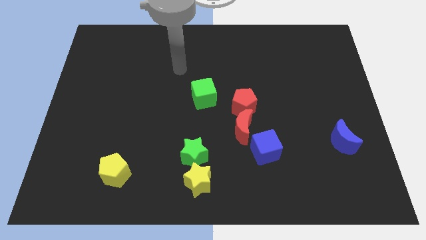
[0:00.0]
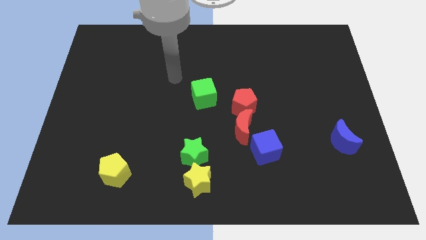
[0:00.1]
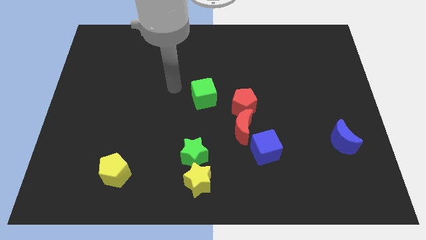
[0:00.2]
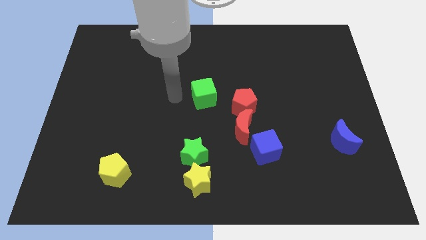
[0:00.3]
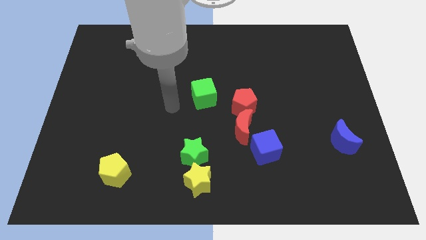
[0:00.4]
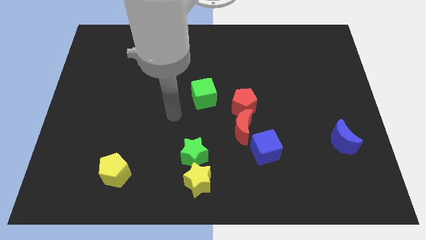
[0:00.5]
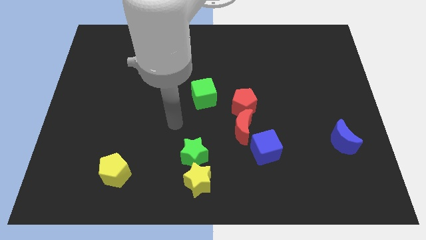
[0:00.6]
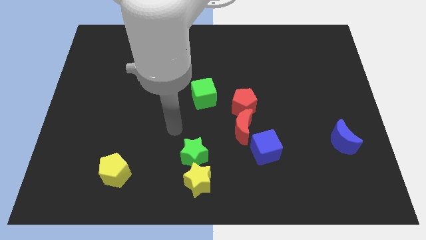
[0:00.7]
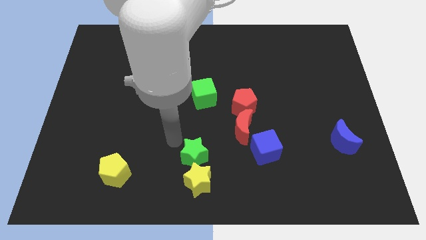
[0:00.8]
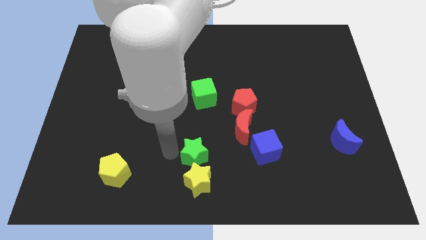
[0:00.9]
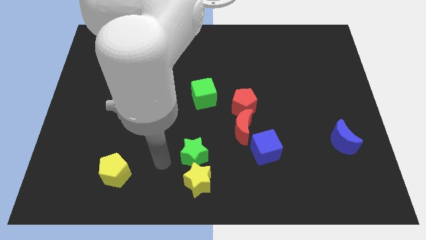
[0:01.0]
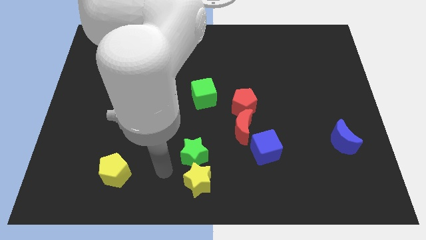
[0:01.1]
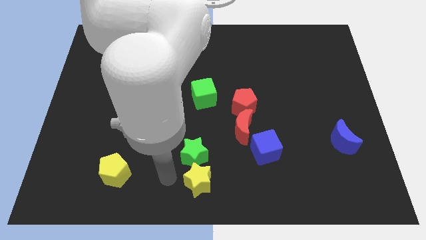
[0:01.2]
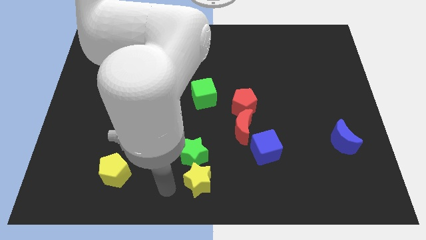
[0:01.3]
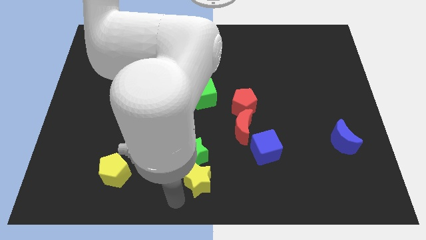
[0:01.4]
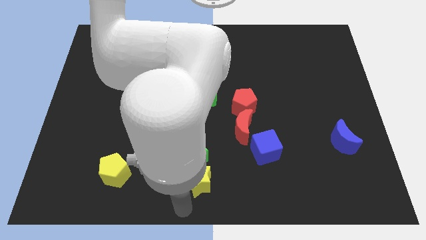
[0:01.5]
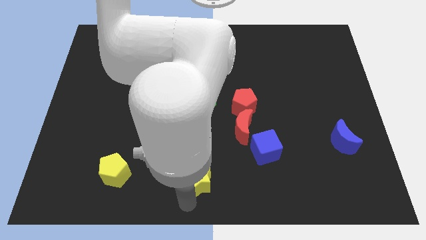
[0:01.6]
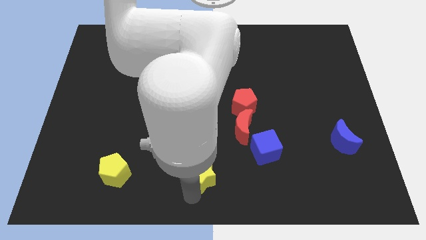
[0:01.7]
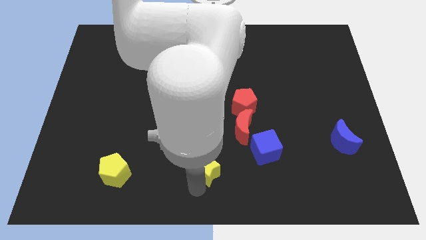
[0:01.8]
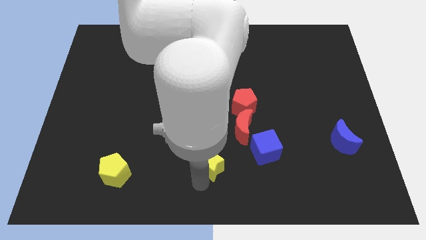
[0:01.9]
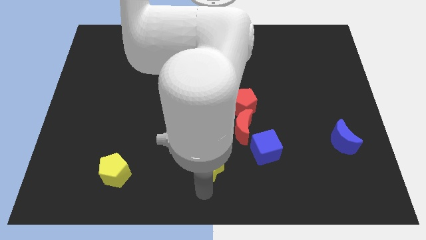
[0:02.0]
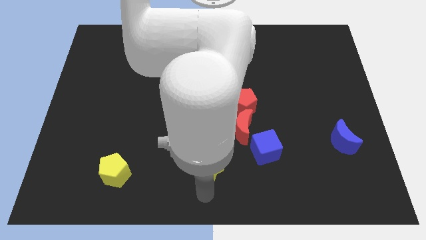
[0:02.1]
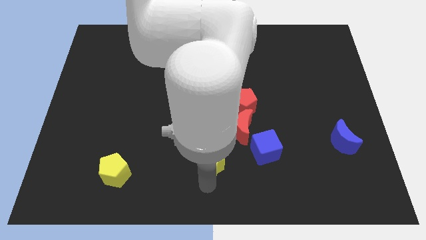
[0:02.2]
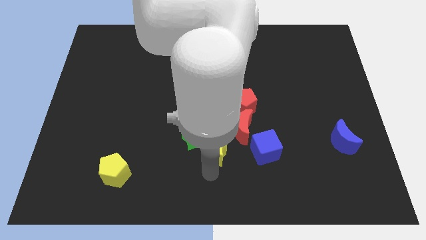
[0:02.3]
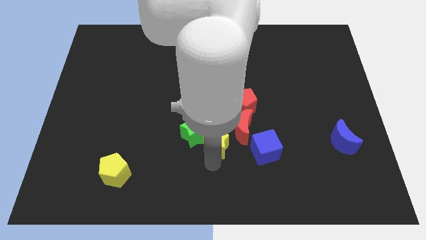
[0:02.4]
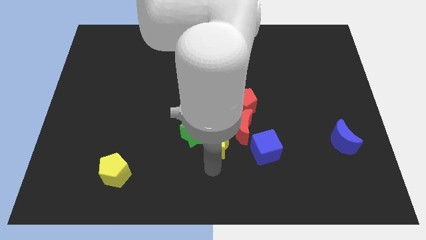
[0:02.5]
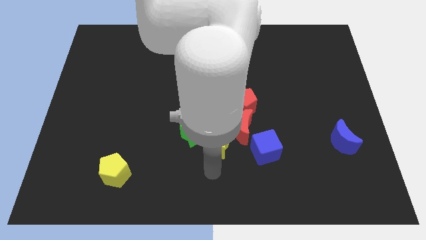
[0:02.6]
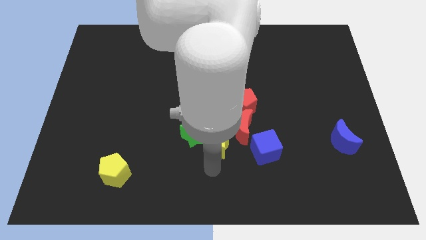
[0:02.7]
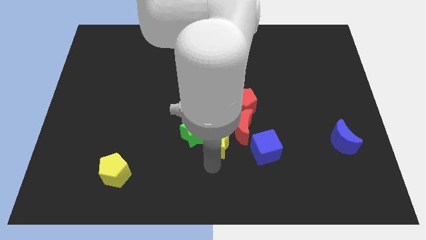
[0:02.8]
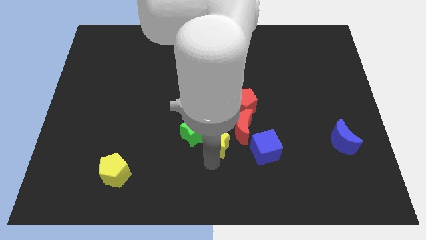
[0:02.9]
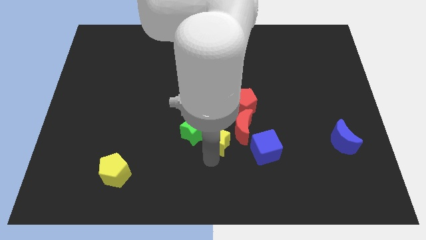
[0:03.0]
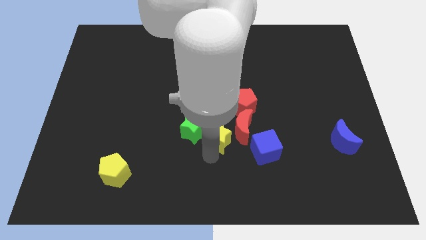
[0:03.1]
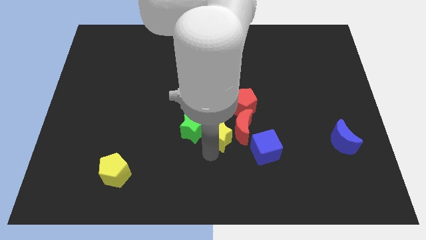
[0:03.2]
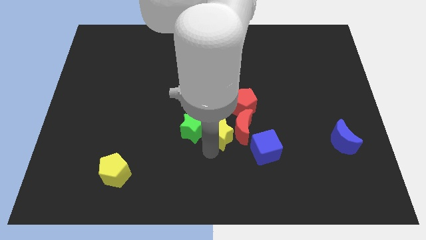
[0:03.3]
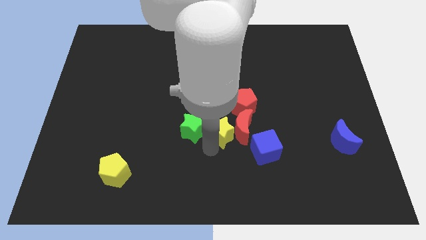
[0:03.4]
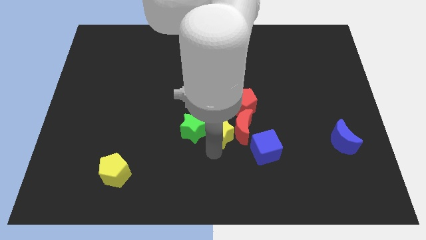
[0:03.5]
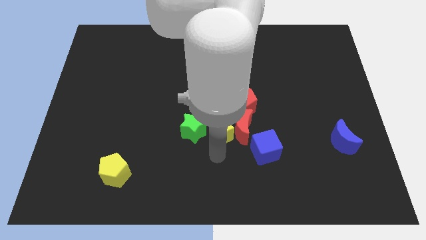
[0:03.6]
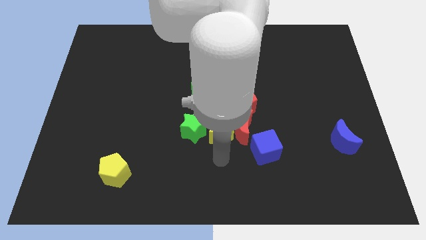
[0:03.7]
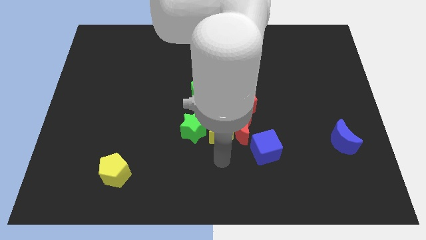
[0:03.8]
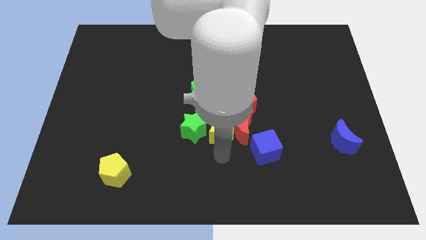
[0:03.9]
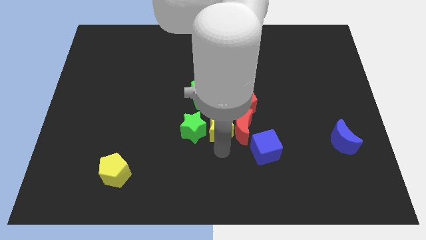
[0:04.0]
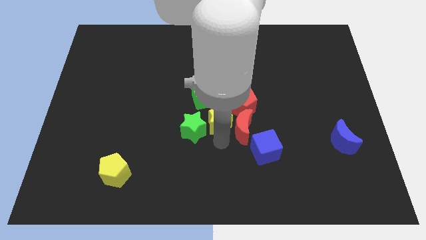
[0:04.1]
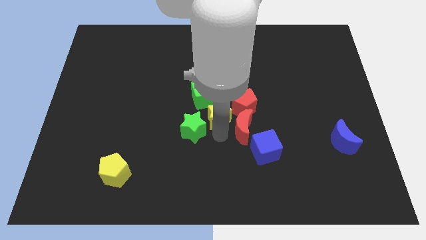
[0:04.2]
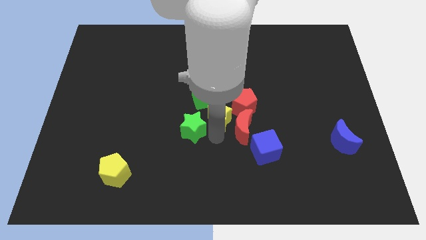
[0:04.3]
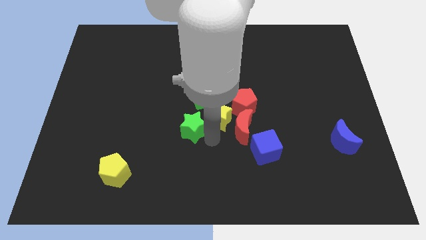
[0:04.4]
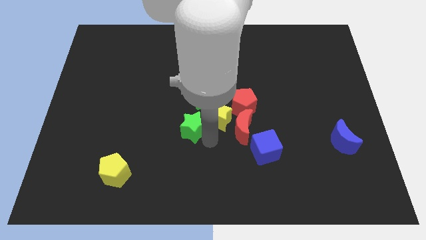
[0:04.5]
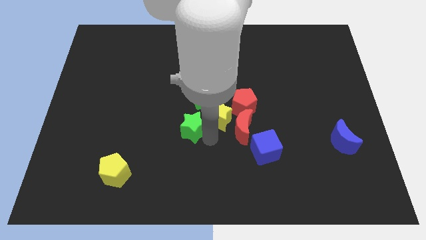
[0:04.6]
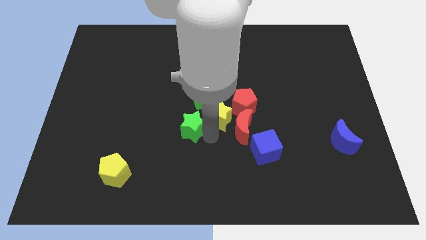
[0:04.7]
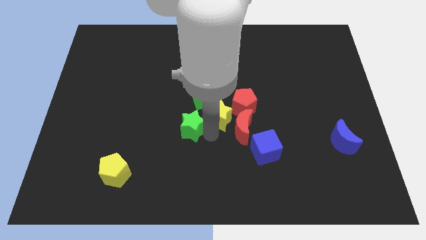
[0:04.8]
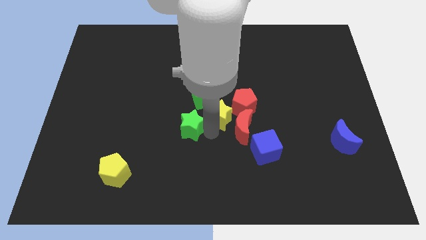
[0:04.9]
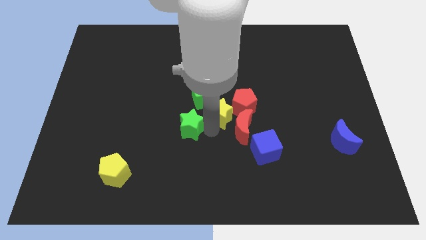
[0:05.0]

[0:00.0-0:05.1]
move the yellow star above the red moon

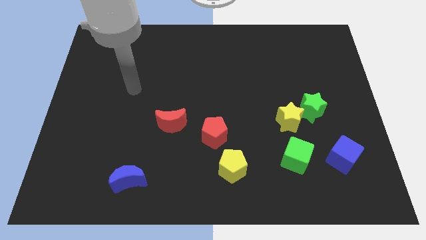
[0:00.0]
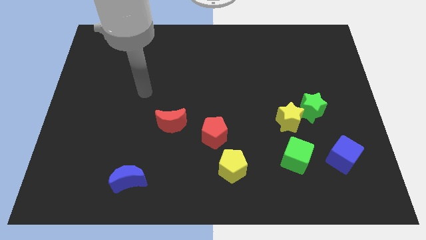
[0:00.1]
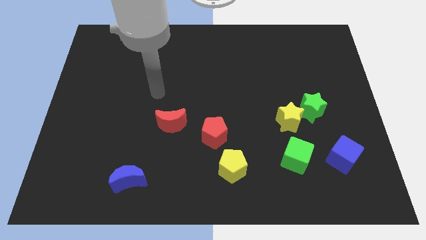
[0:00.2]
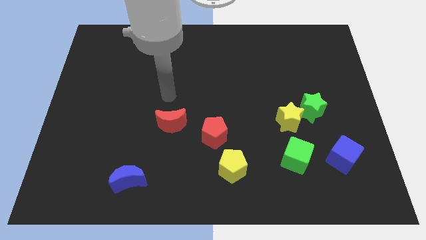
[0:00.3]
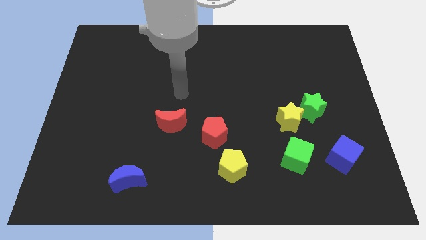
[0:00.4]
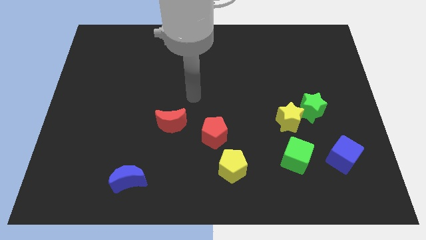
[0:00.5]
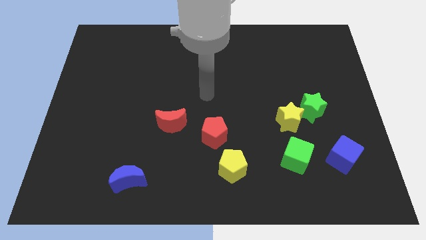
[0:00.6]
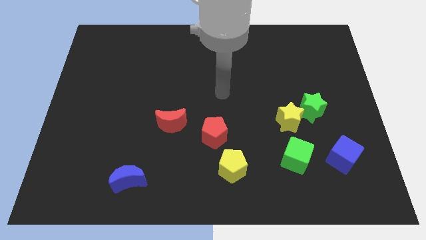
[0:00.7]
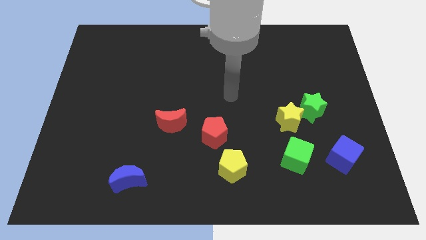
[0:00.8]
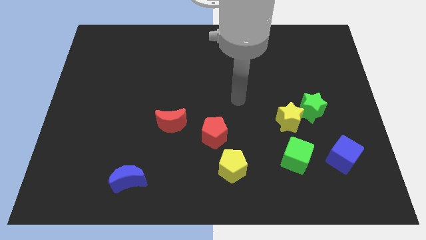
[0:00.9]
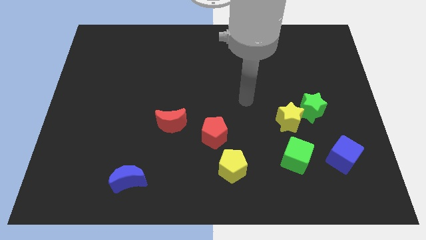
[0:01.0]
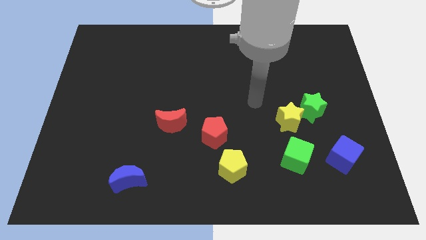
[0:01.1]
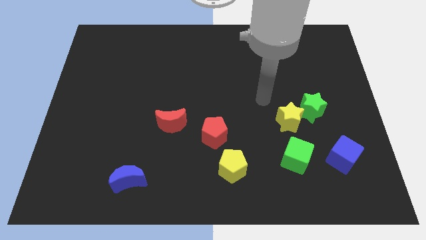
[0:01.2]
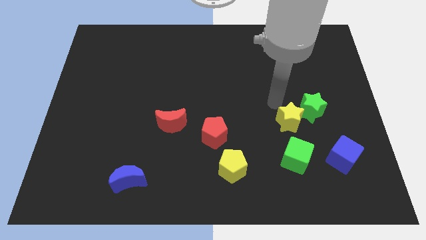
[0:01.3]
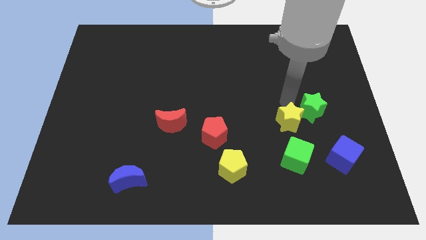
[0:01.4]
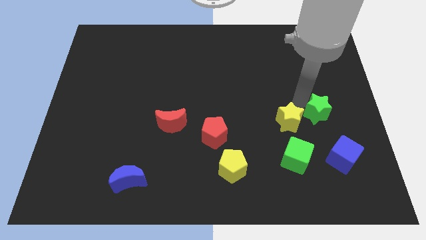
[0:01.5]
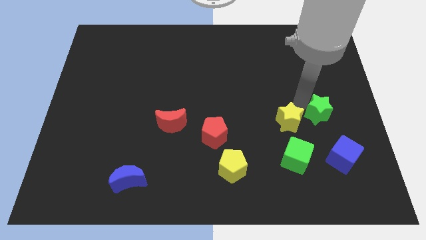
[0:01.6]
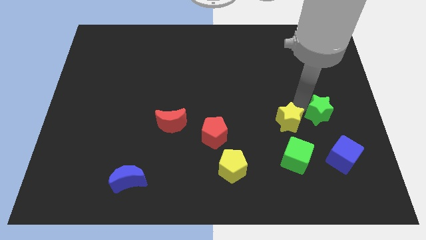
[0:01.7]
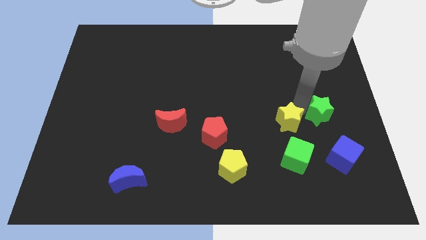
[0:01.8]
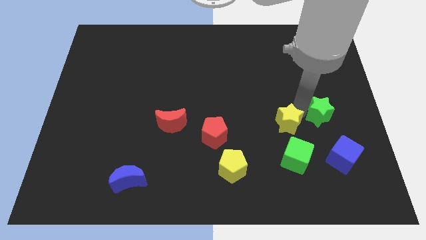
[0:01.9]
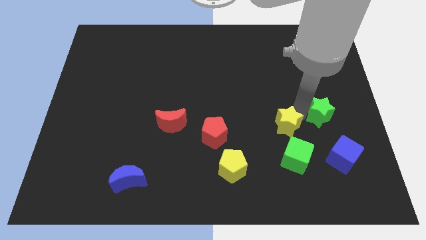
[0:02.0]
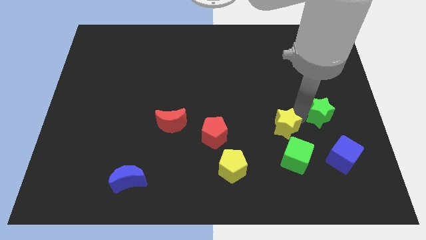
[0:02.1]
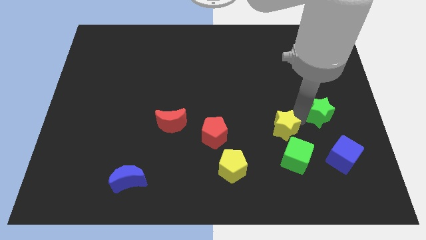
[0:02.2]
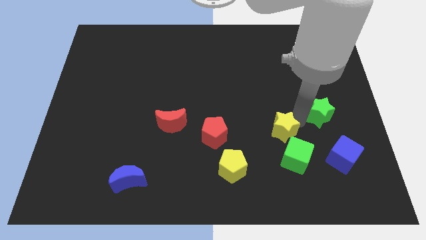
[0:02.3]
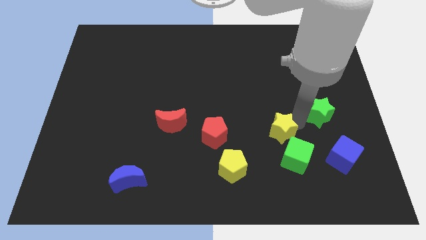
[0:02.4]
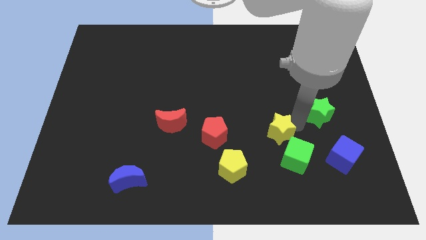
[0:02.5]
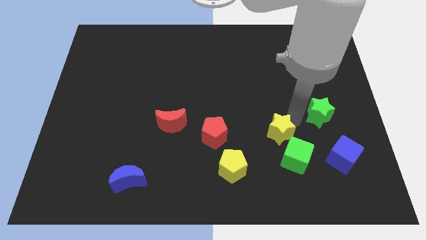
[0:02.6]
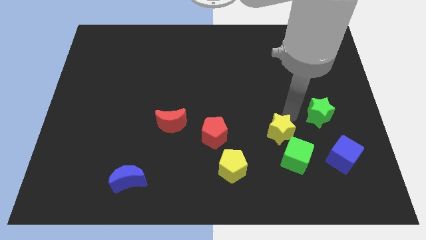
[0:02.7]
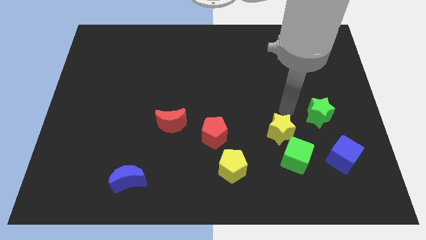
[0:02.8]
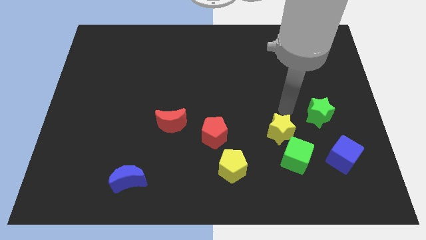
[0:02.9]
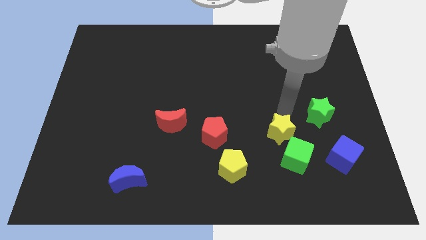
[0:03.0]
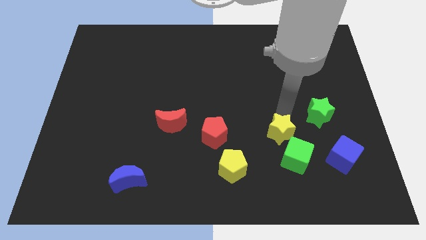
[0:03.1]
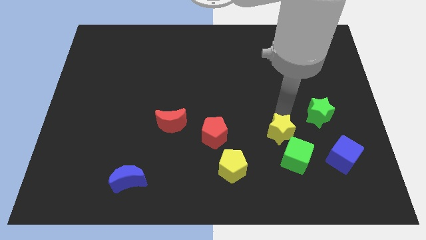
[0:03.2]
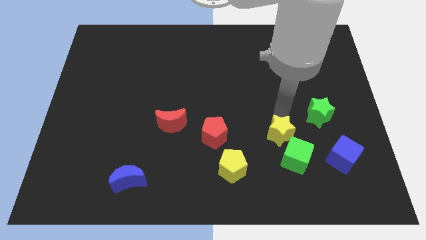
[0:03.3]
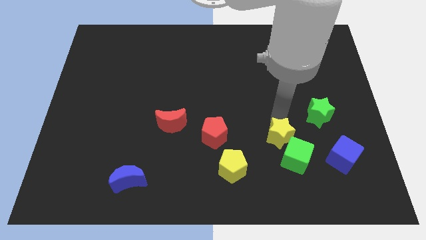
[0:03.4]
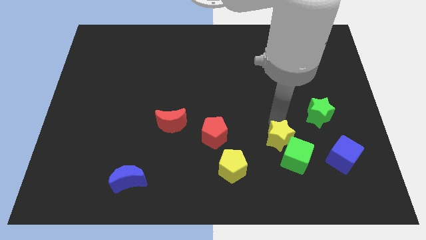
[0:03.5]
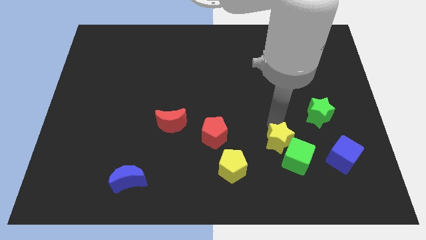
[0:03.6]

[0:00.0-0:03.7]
put the yellow star to the left of the blue cube
